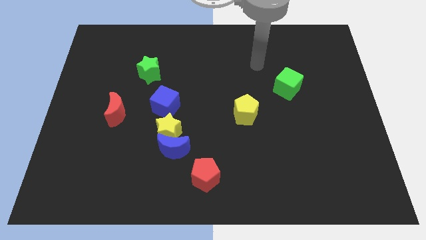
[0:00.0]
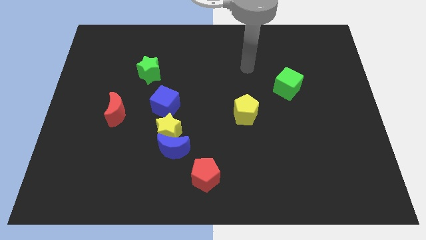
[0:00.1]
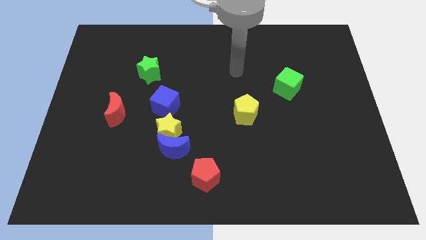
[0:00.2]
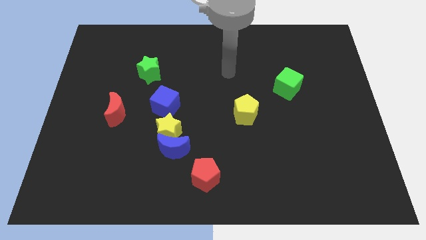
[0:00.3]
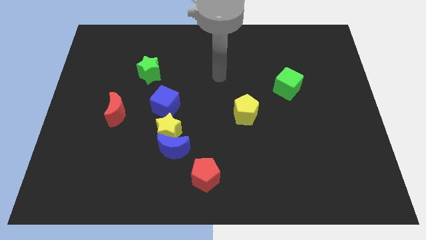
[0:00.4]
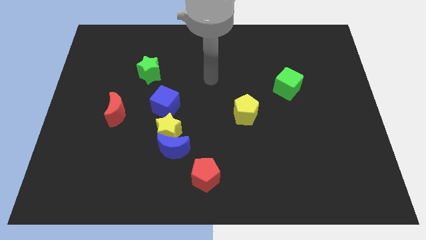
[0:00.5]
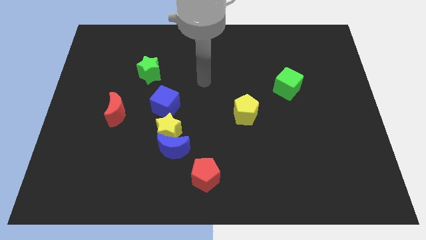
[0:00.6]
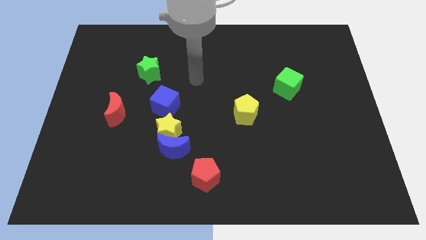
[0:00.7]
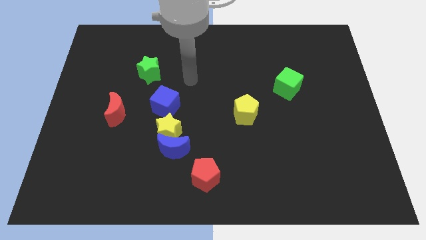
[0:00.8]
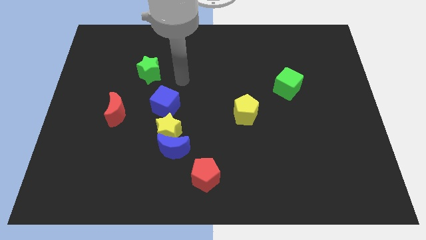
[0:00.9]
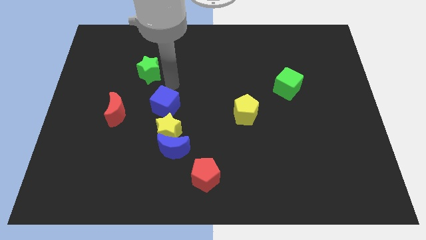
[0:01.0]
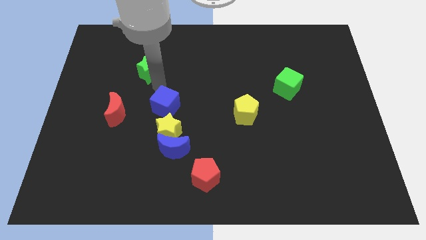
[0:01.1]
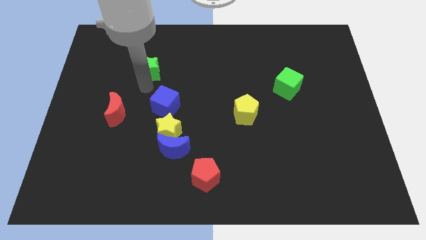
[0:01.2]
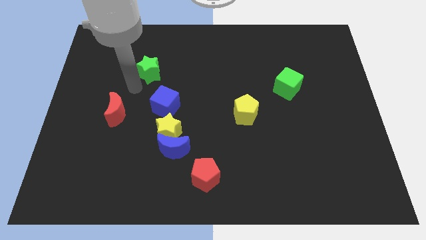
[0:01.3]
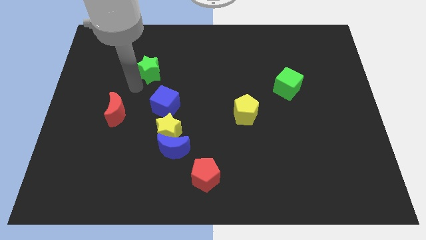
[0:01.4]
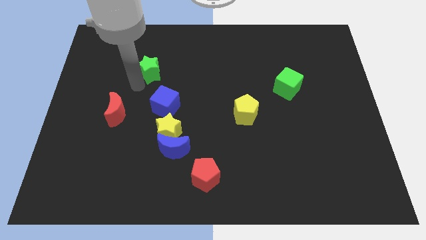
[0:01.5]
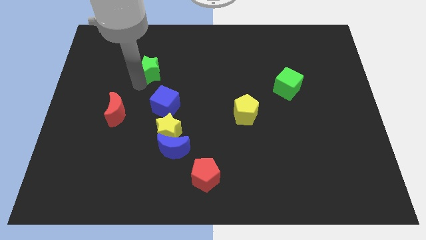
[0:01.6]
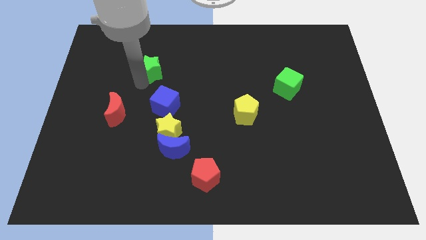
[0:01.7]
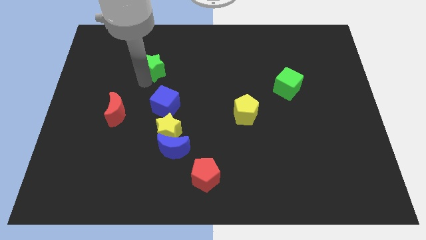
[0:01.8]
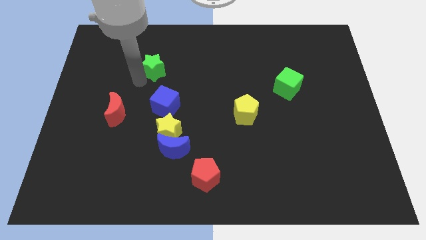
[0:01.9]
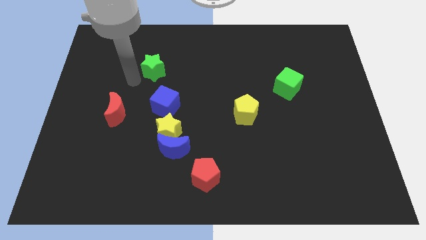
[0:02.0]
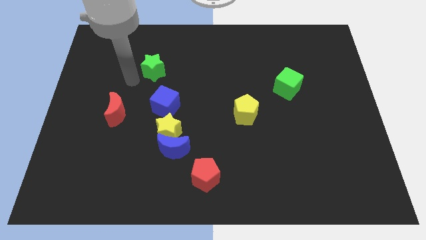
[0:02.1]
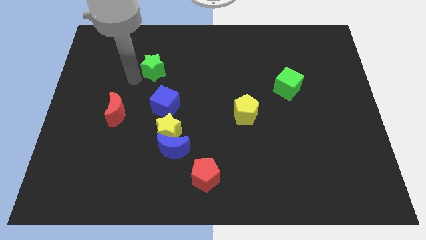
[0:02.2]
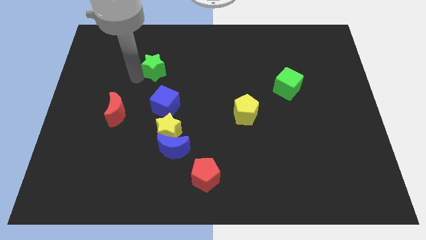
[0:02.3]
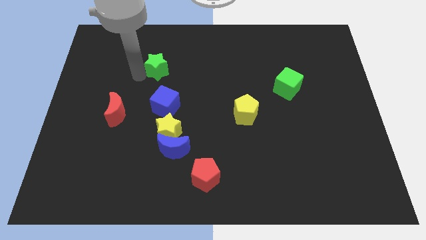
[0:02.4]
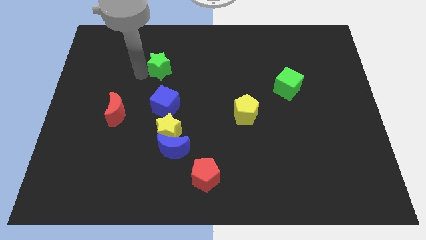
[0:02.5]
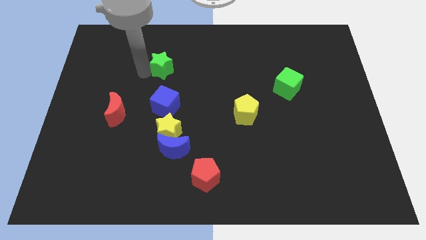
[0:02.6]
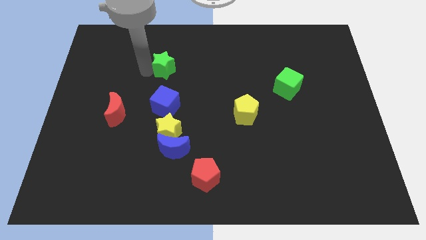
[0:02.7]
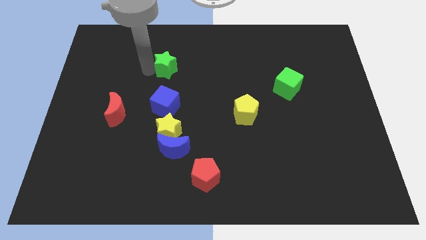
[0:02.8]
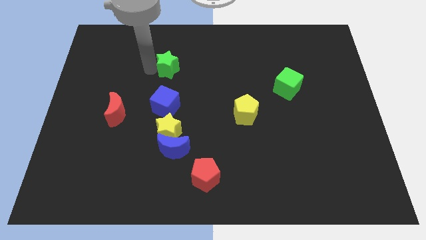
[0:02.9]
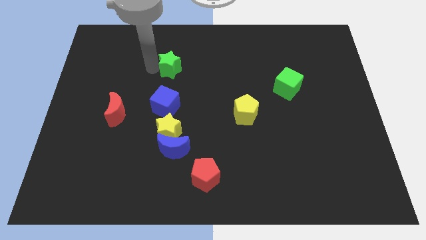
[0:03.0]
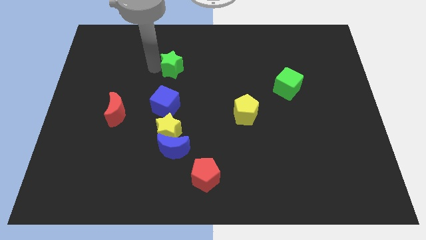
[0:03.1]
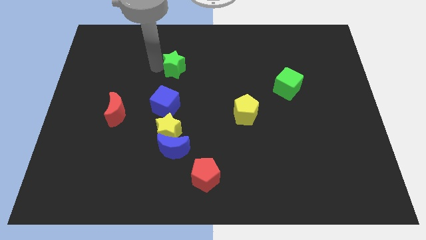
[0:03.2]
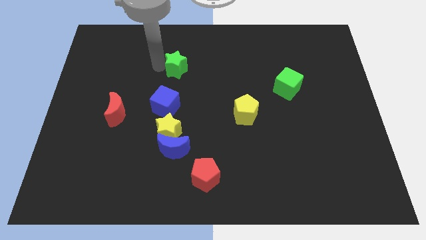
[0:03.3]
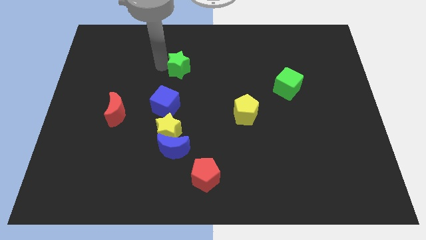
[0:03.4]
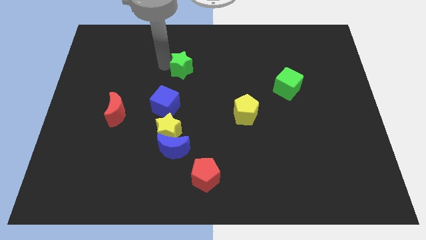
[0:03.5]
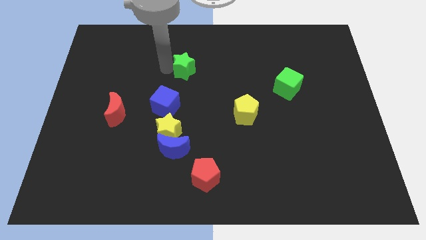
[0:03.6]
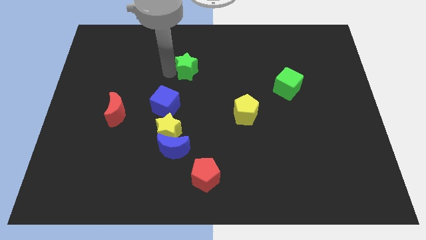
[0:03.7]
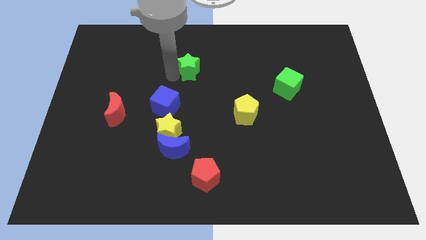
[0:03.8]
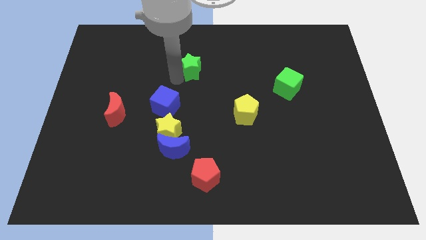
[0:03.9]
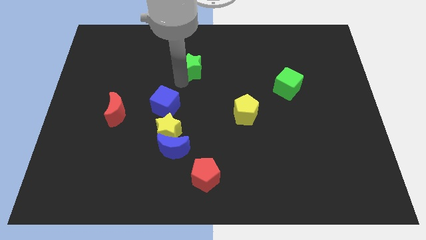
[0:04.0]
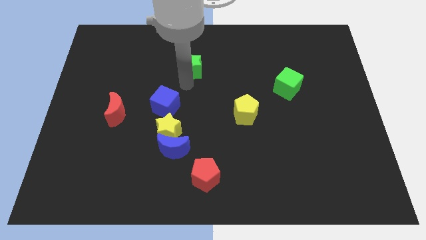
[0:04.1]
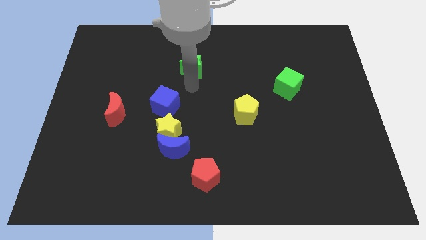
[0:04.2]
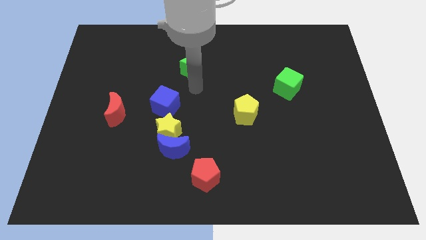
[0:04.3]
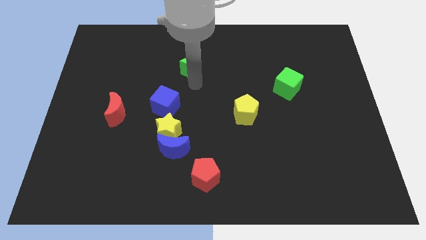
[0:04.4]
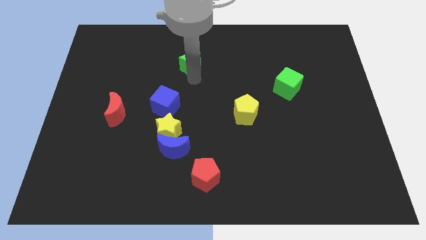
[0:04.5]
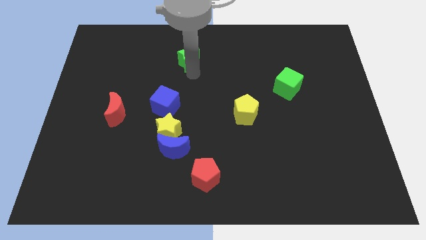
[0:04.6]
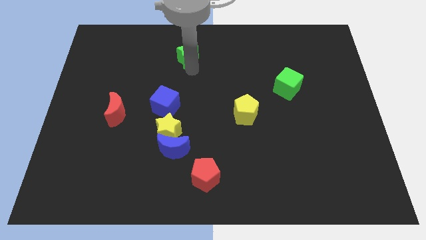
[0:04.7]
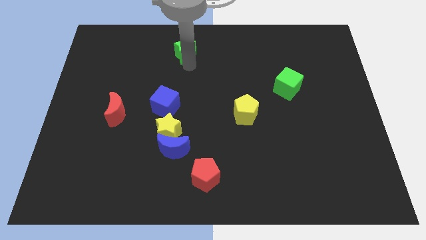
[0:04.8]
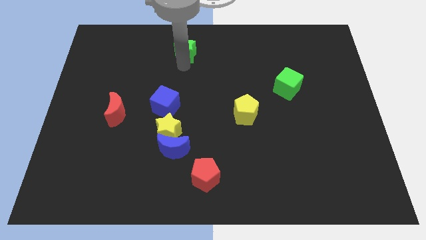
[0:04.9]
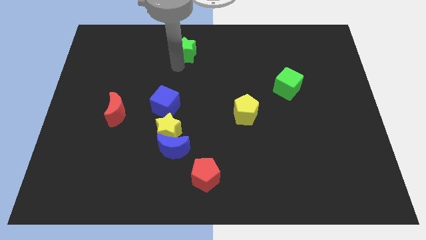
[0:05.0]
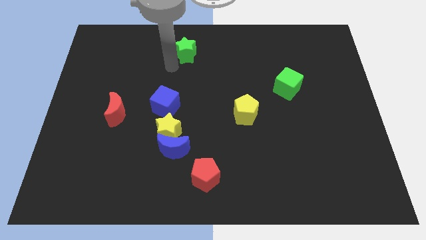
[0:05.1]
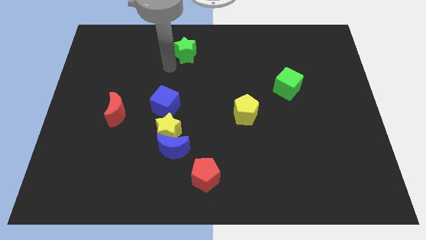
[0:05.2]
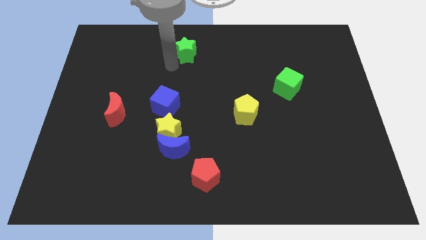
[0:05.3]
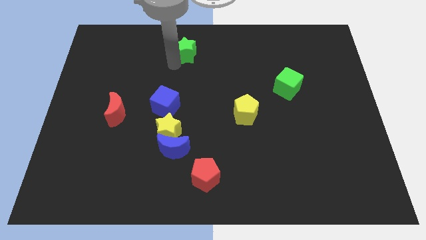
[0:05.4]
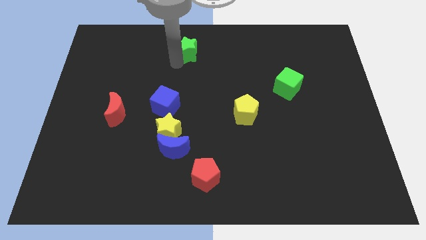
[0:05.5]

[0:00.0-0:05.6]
slide the green star to the top
